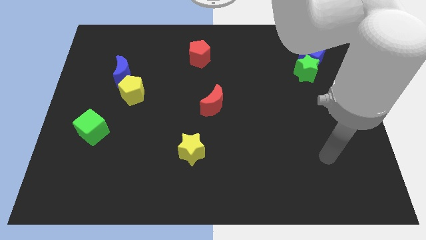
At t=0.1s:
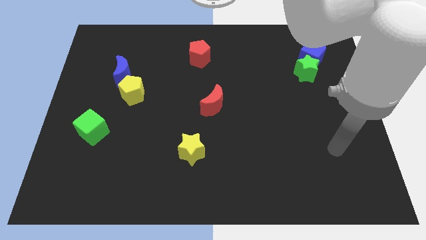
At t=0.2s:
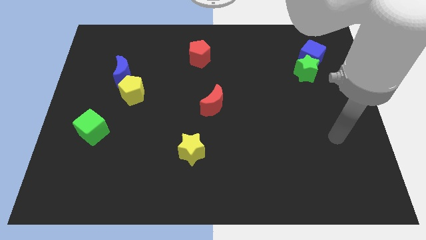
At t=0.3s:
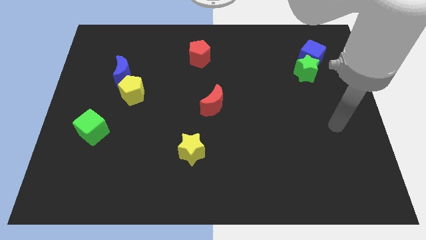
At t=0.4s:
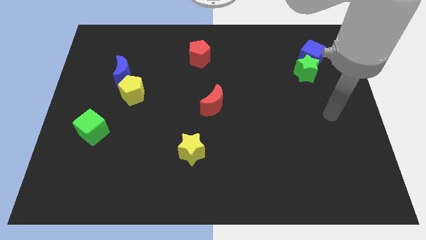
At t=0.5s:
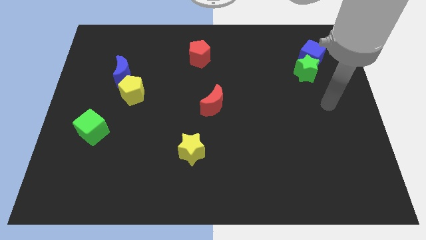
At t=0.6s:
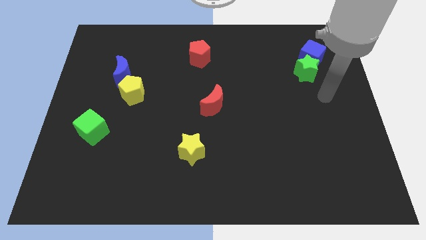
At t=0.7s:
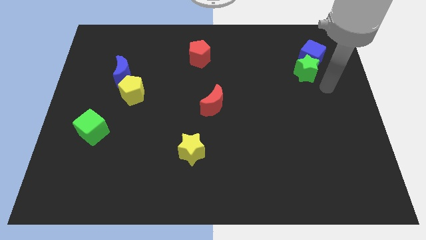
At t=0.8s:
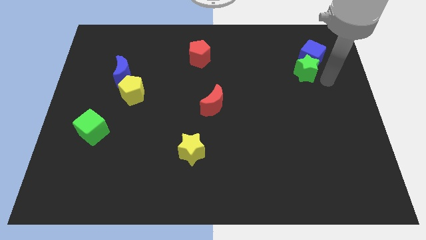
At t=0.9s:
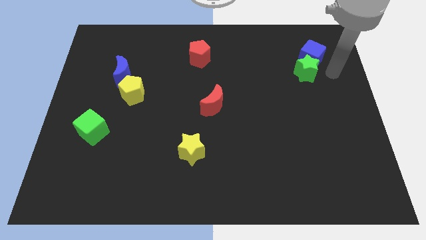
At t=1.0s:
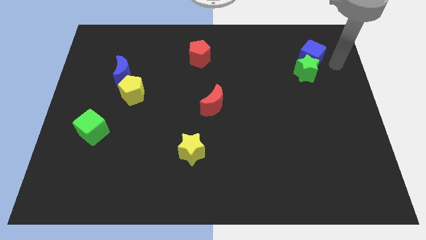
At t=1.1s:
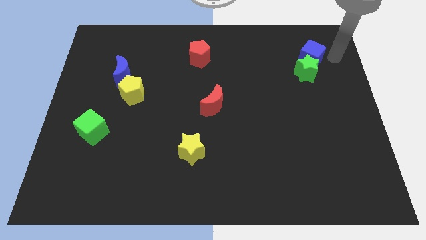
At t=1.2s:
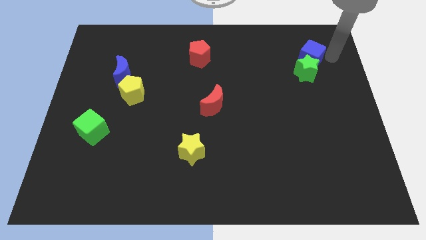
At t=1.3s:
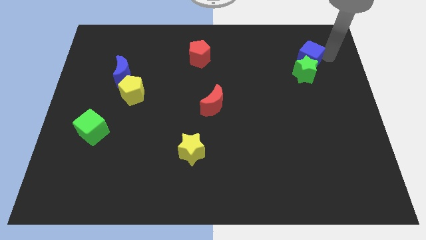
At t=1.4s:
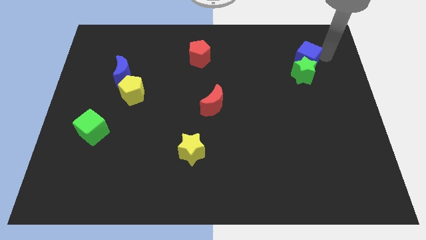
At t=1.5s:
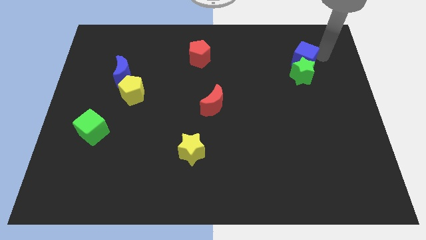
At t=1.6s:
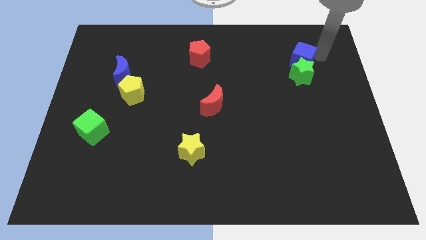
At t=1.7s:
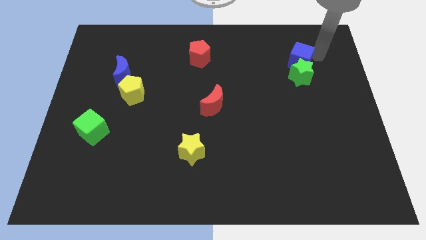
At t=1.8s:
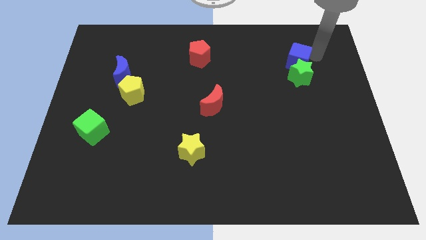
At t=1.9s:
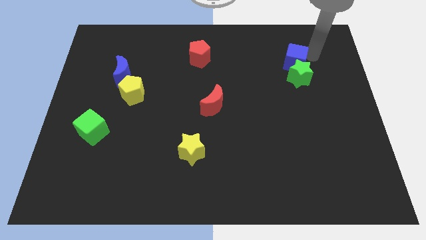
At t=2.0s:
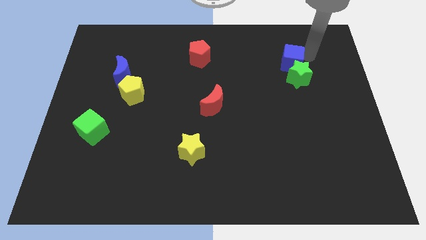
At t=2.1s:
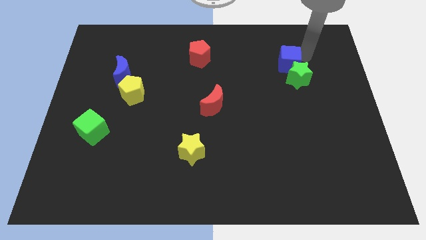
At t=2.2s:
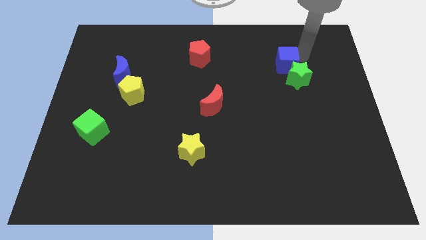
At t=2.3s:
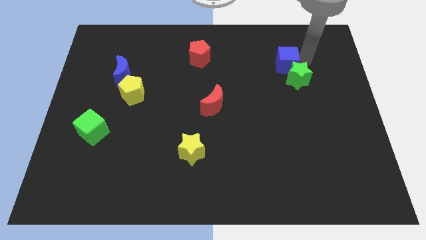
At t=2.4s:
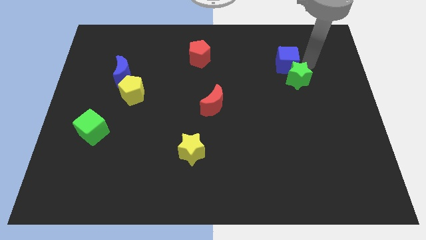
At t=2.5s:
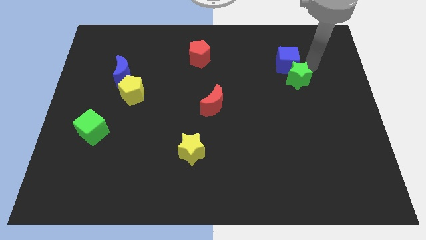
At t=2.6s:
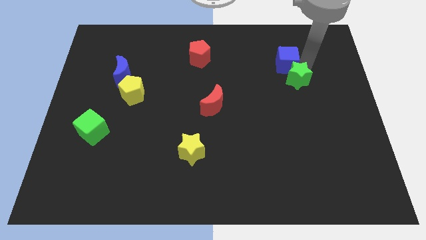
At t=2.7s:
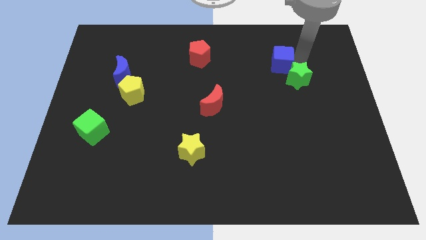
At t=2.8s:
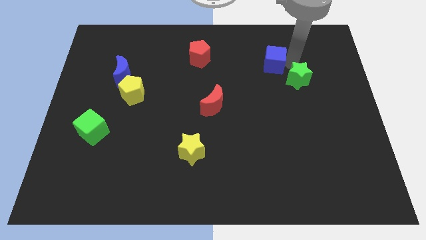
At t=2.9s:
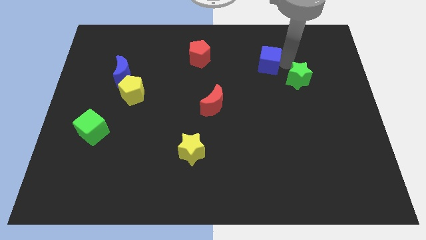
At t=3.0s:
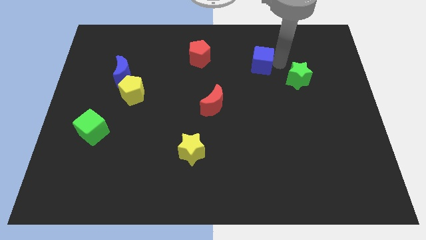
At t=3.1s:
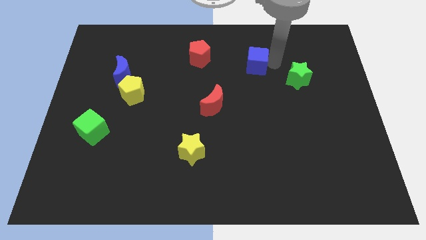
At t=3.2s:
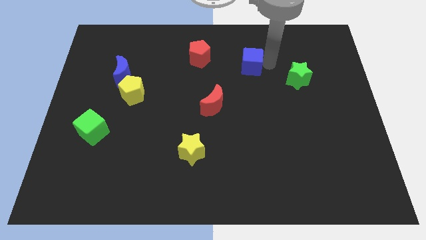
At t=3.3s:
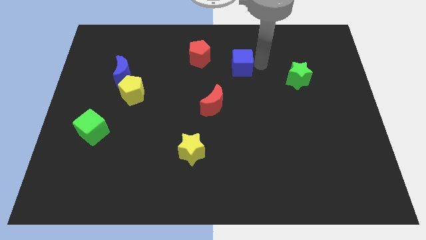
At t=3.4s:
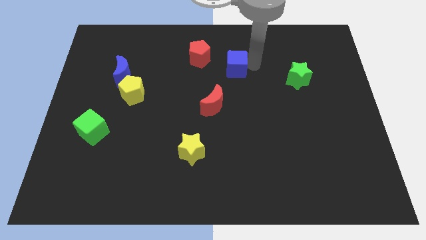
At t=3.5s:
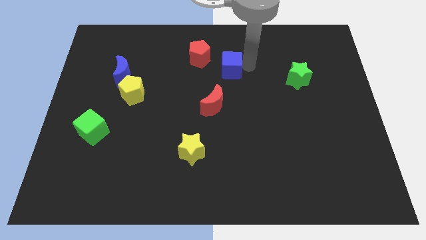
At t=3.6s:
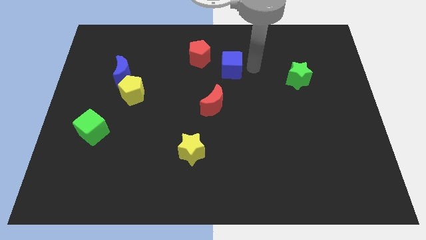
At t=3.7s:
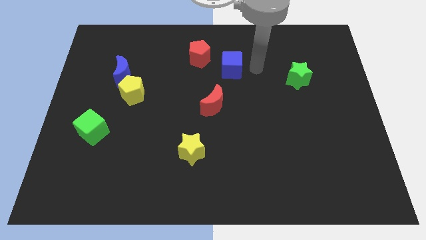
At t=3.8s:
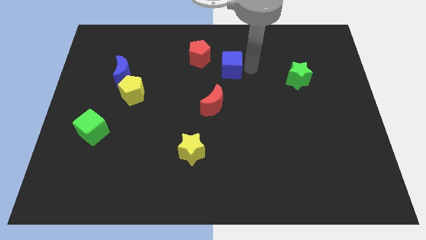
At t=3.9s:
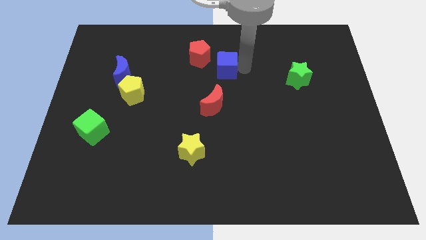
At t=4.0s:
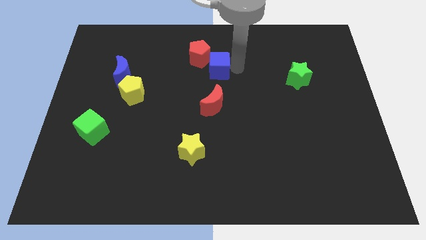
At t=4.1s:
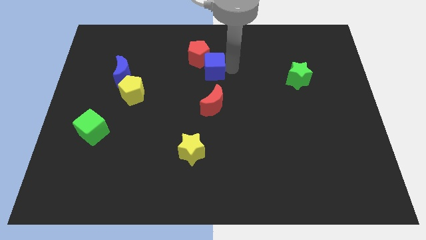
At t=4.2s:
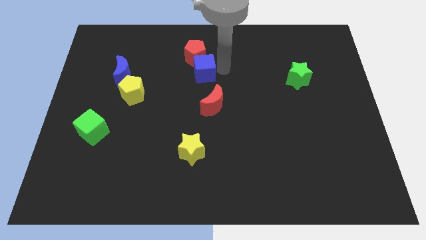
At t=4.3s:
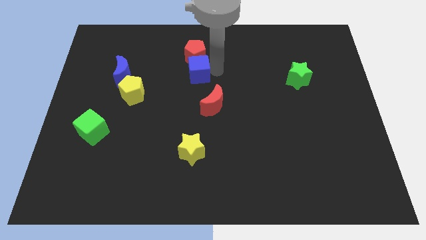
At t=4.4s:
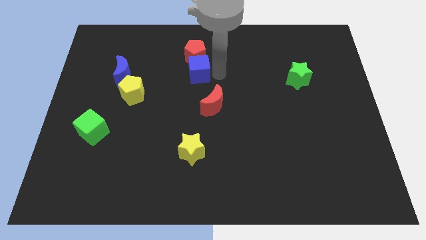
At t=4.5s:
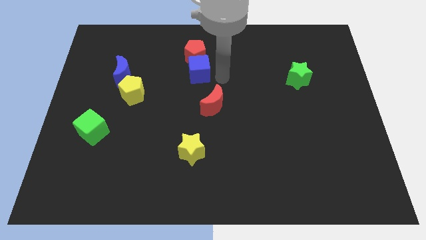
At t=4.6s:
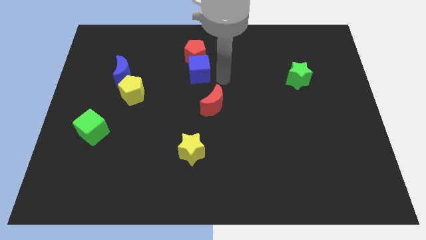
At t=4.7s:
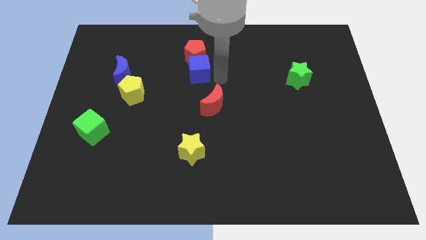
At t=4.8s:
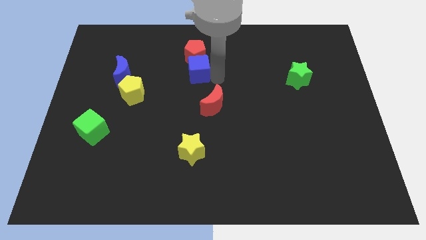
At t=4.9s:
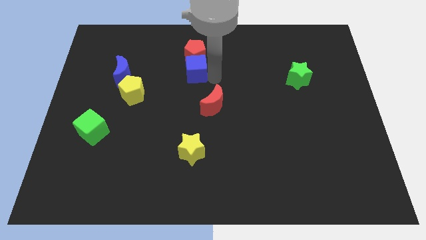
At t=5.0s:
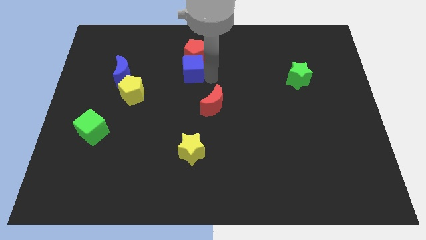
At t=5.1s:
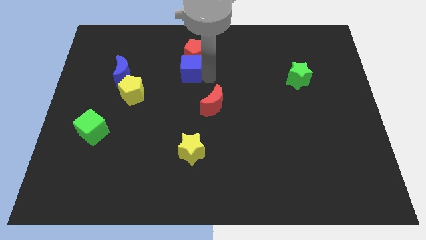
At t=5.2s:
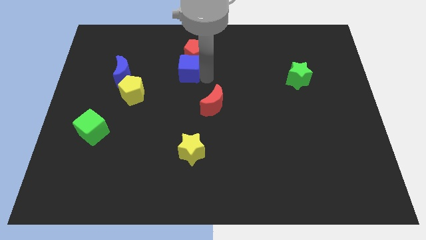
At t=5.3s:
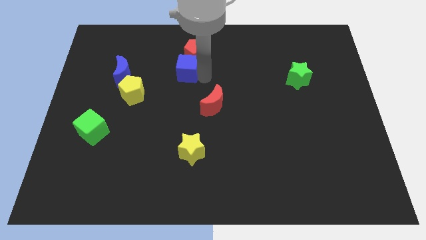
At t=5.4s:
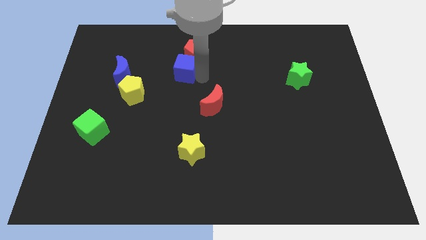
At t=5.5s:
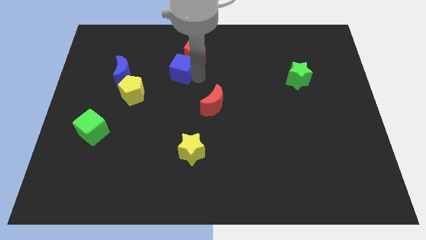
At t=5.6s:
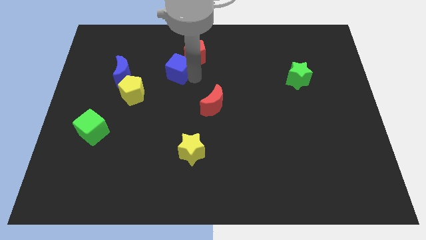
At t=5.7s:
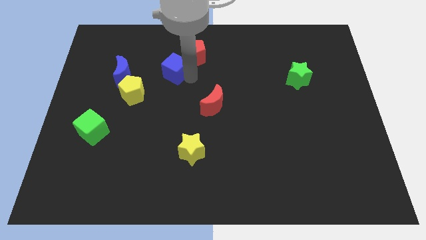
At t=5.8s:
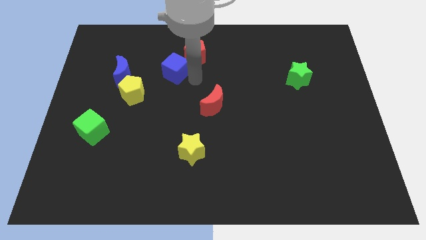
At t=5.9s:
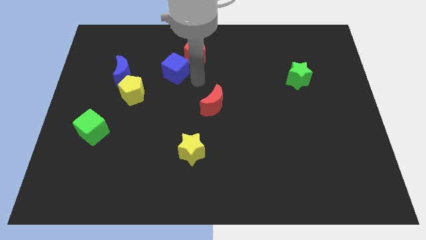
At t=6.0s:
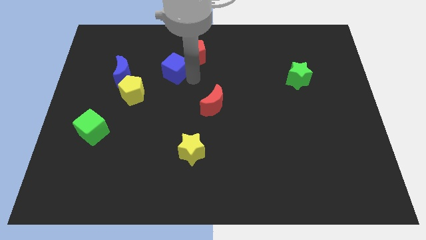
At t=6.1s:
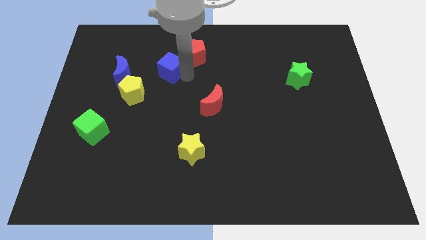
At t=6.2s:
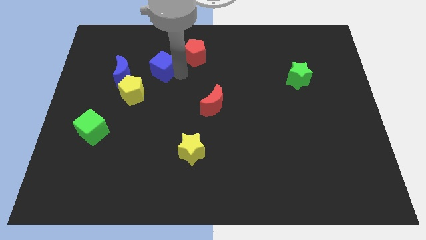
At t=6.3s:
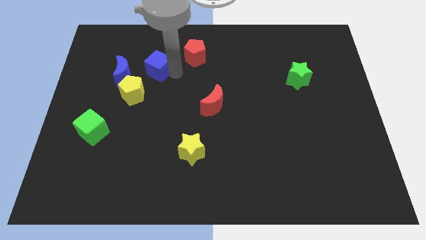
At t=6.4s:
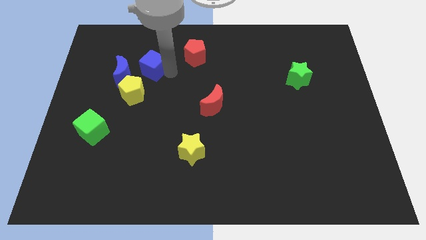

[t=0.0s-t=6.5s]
move the blue cube to the top side of the yellow pentagon
